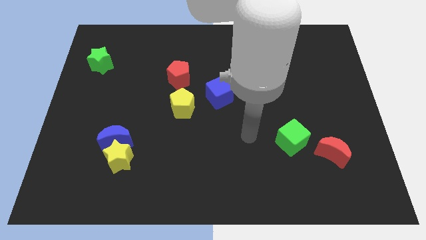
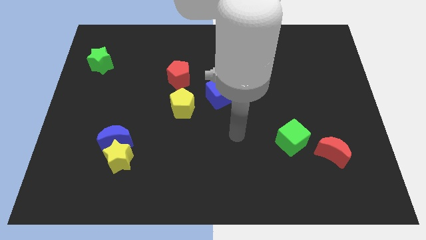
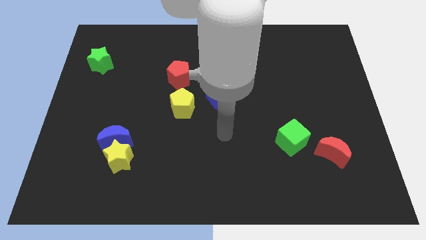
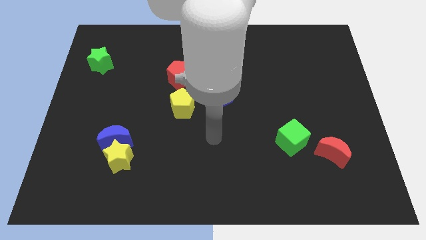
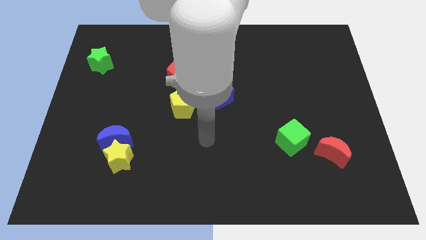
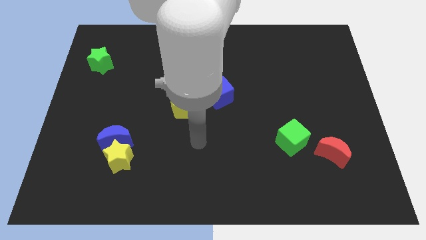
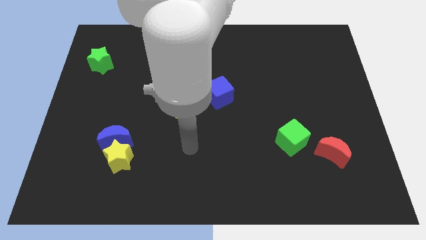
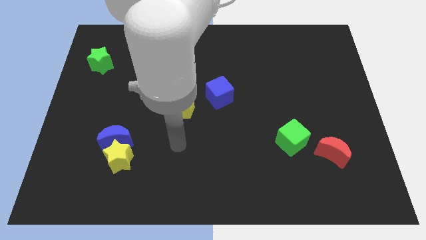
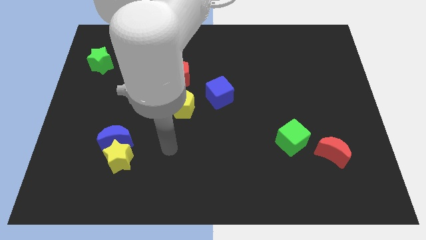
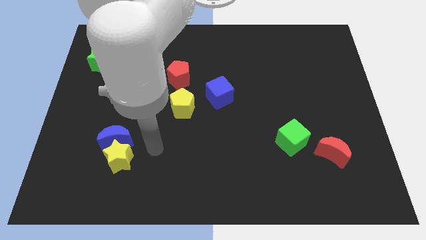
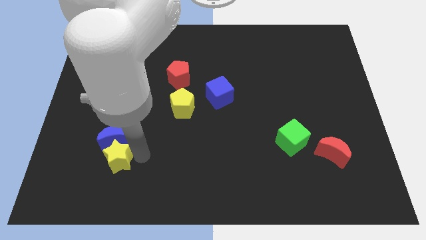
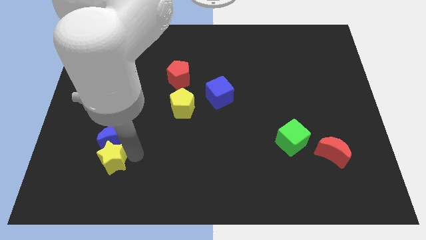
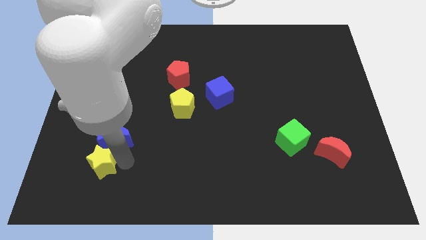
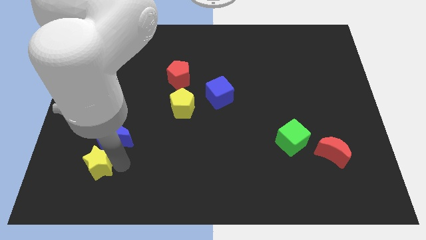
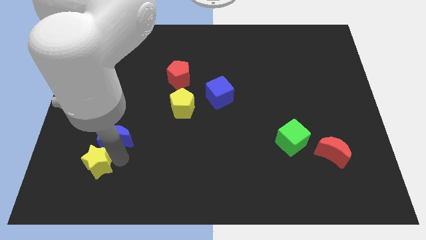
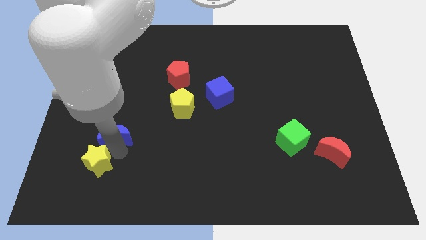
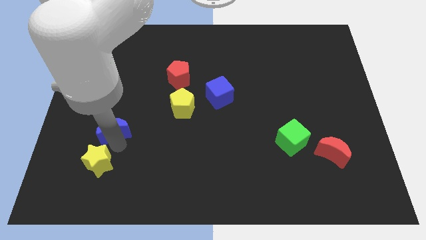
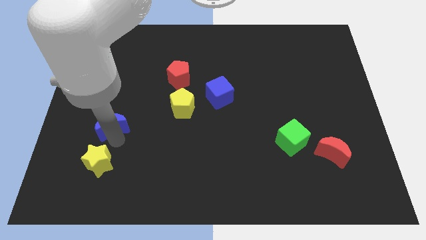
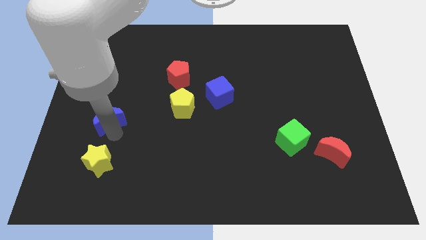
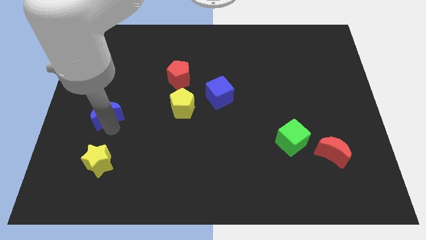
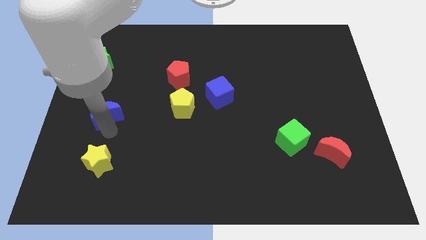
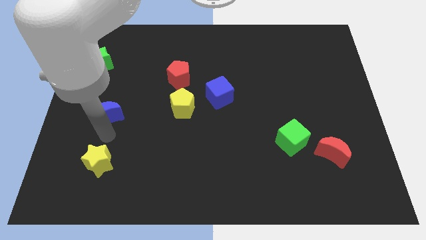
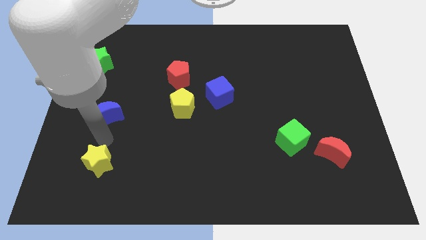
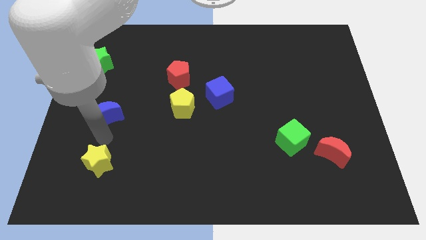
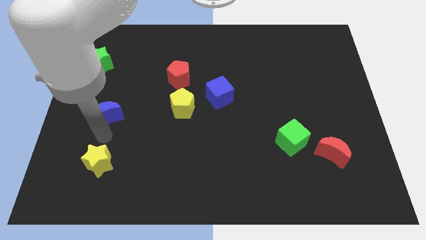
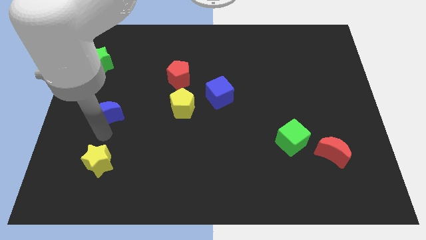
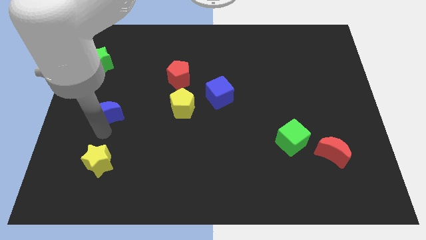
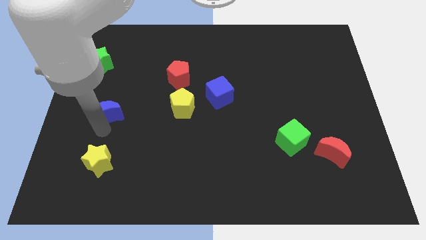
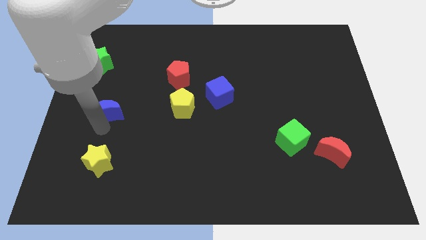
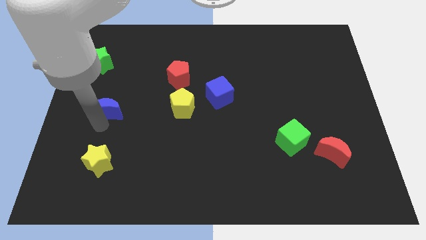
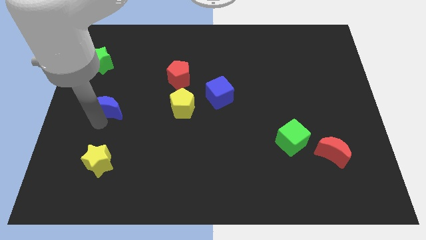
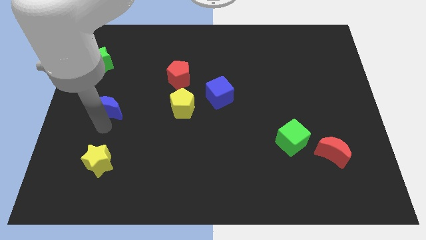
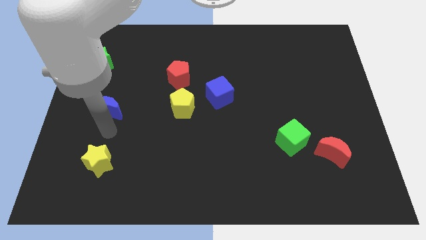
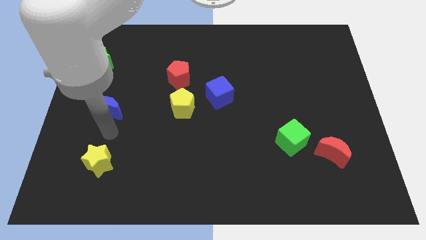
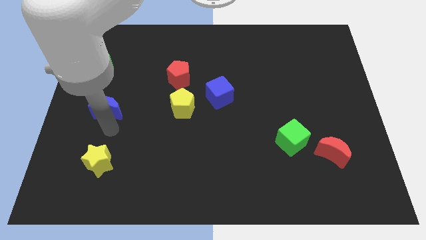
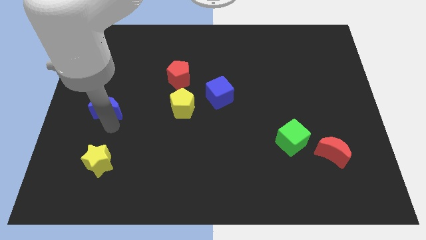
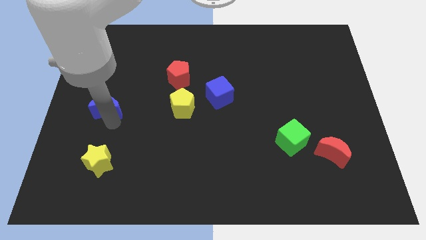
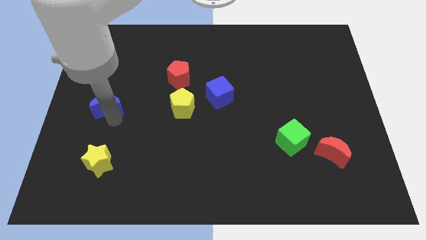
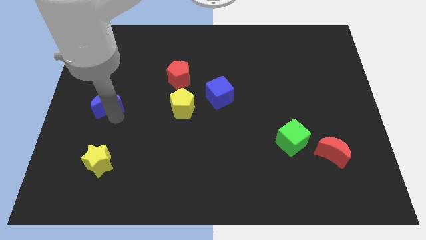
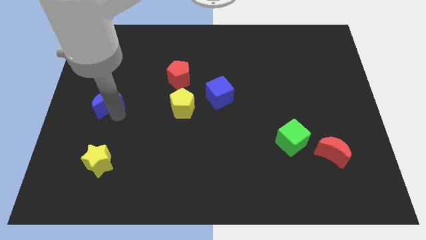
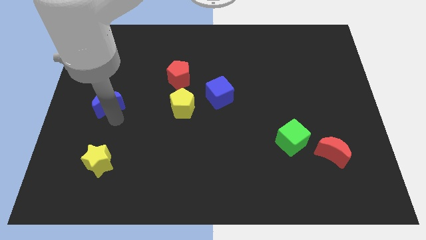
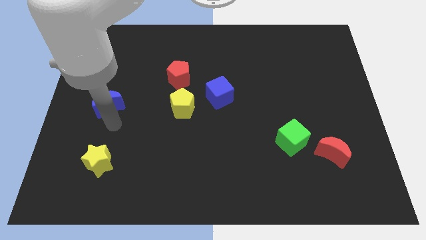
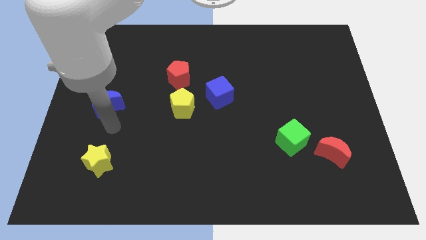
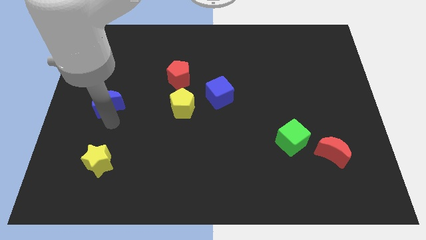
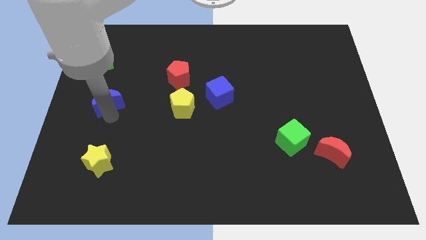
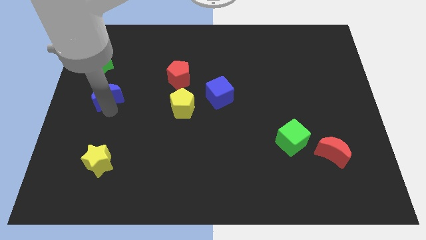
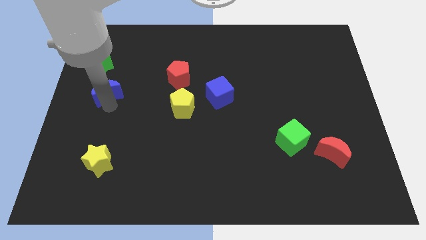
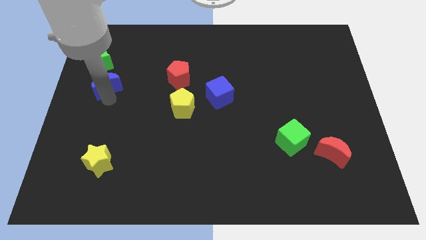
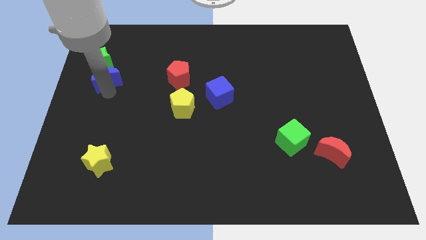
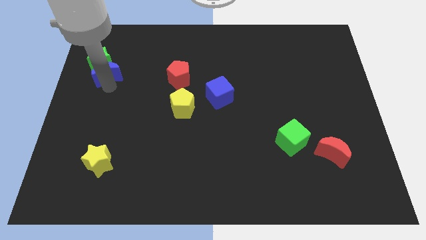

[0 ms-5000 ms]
move the blue moon close to the green star

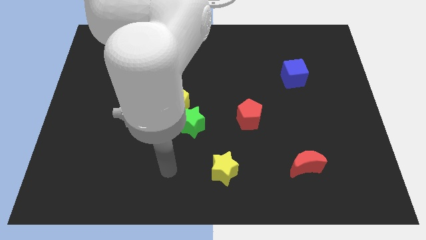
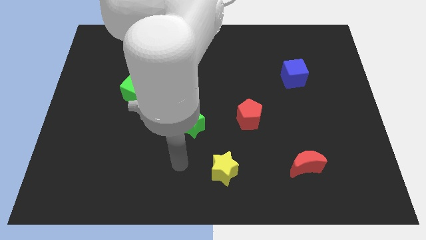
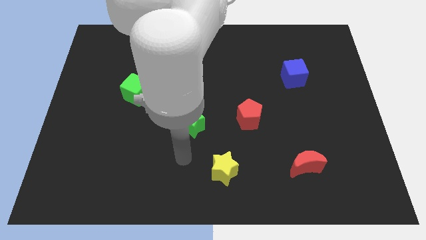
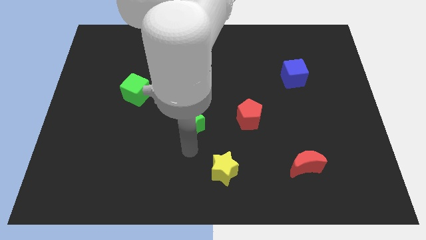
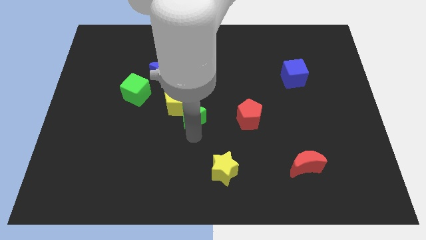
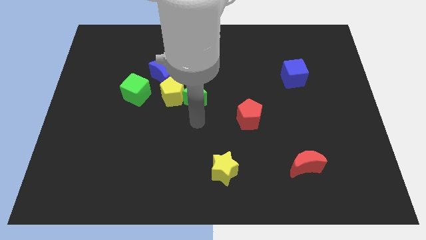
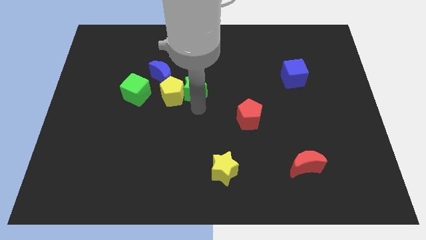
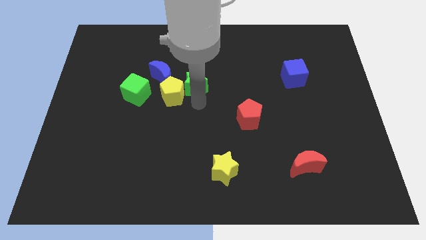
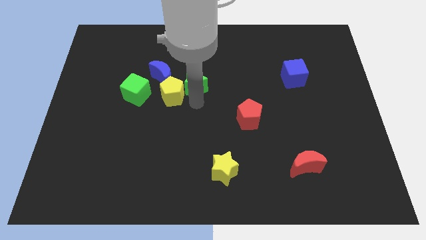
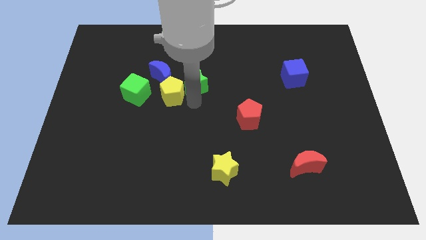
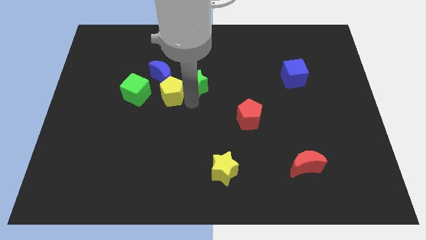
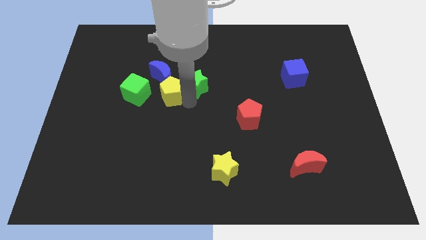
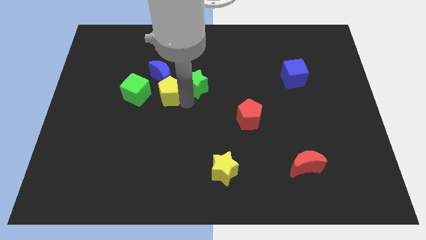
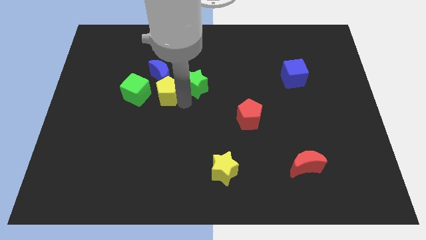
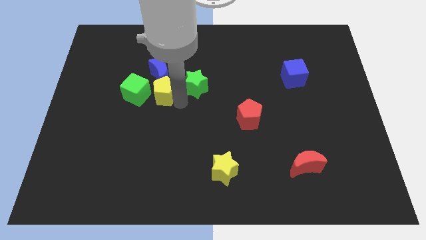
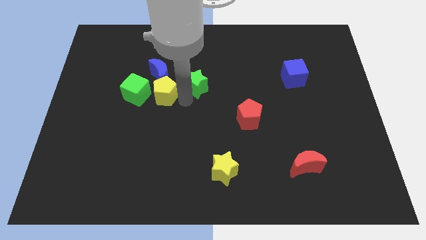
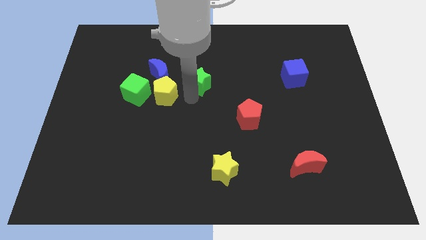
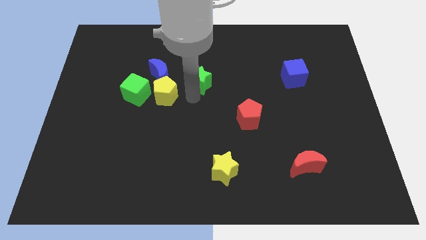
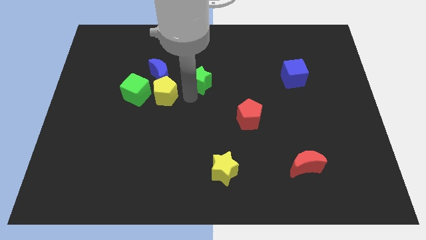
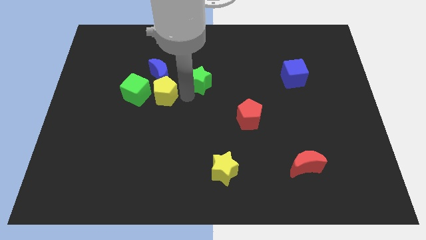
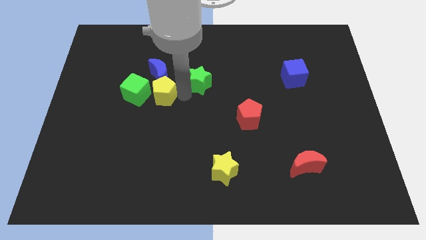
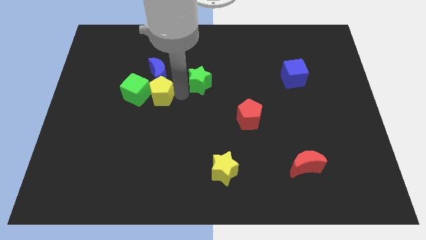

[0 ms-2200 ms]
slide the yellow pentagon close to the green cube

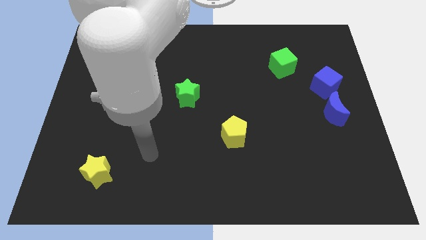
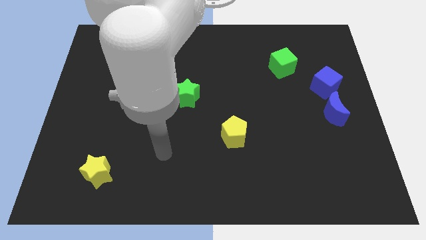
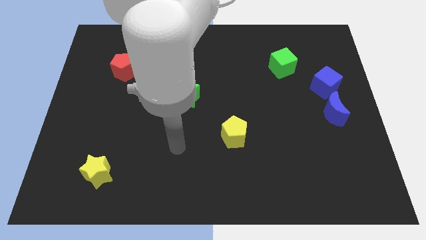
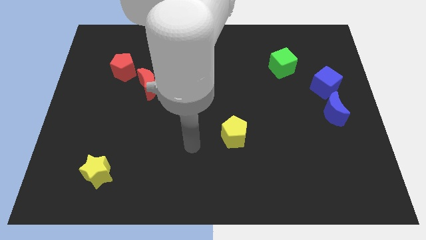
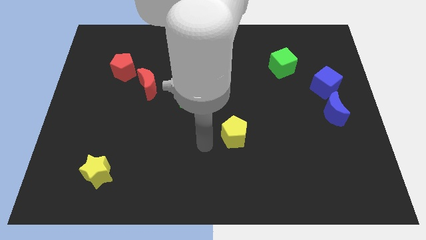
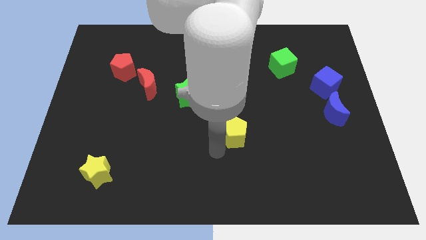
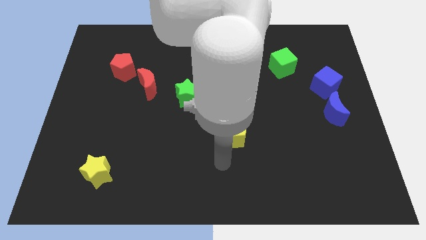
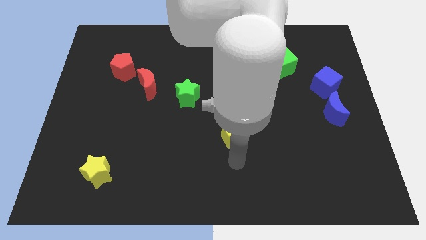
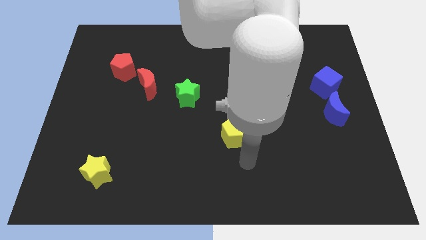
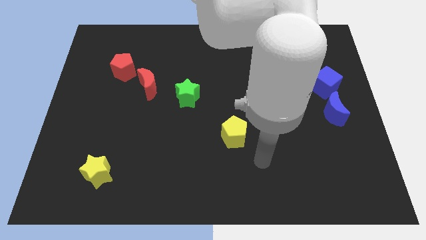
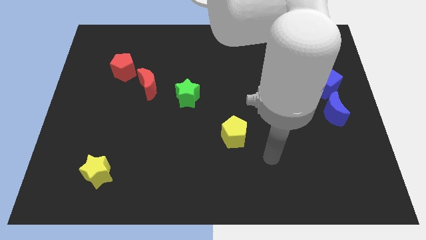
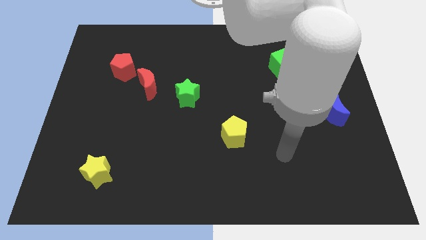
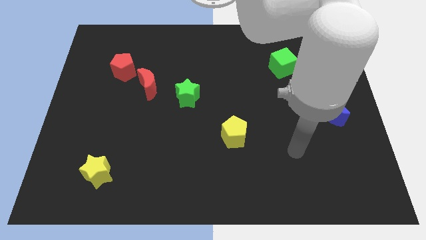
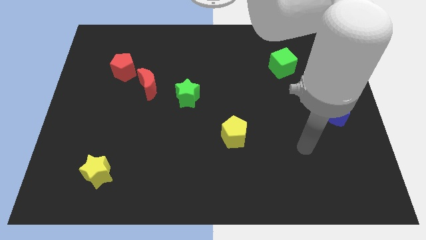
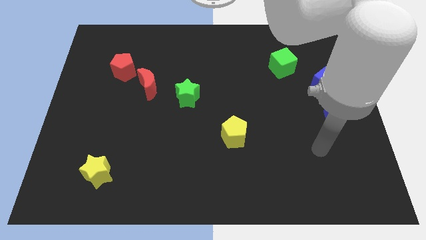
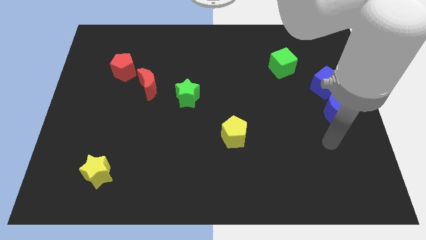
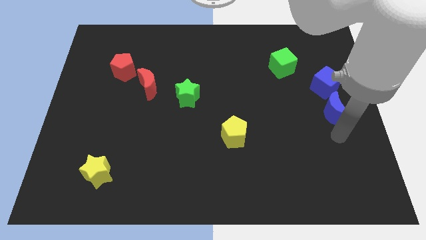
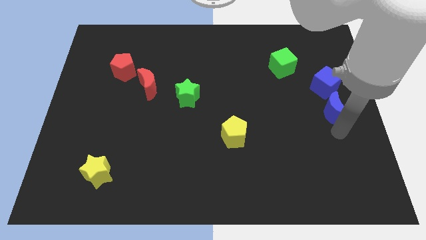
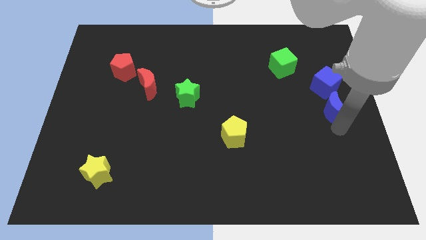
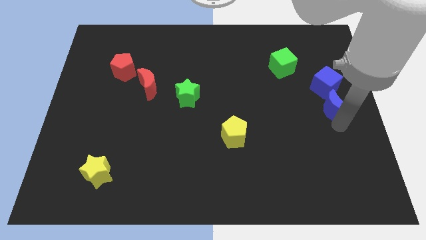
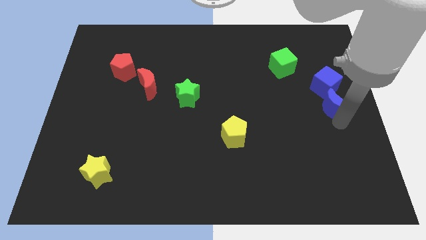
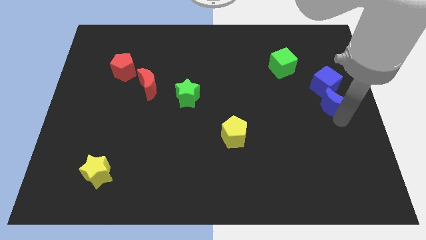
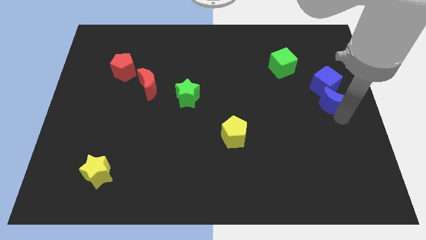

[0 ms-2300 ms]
slide the blue moon towards the blue cube
